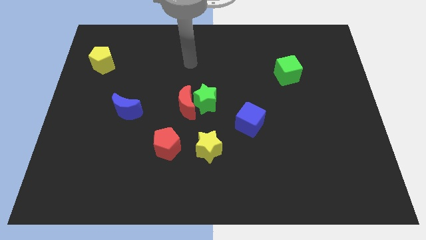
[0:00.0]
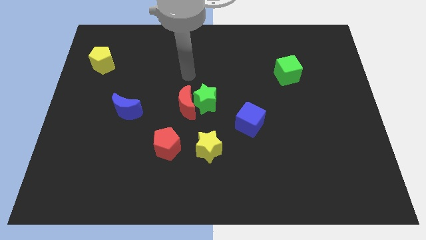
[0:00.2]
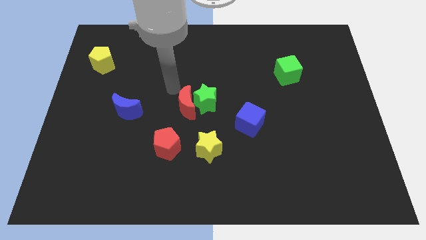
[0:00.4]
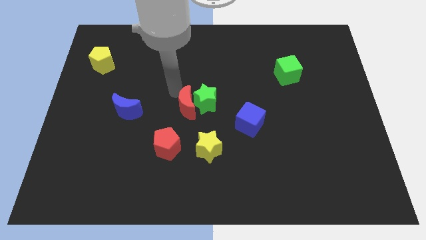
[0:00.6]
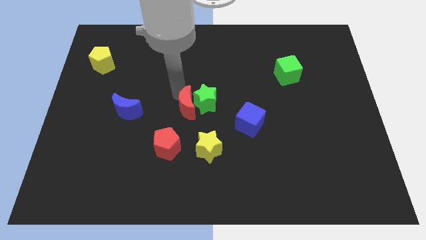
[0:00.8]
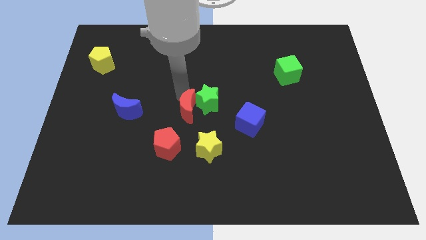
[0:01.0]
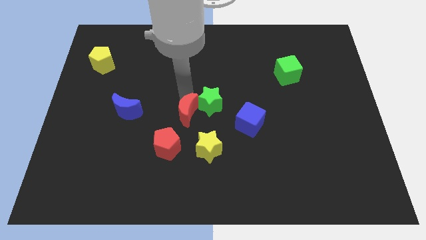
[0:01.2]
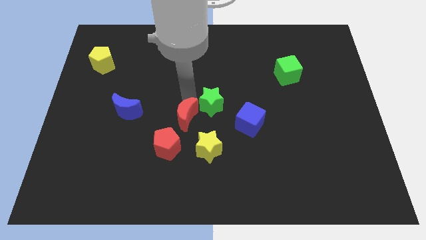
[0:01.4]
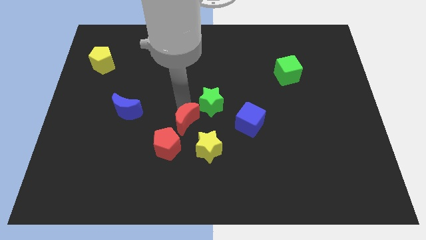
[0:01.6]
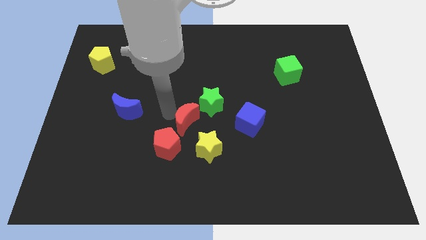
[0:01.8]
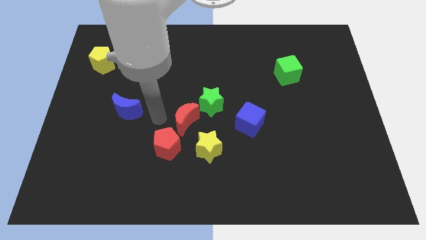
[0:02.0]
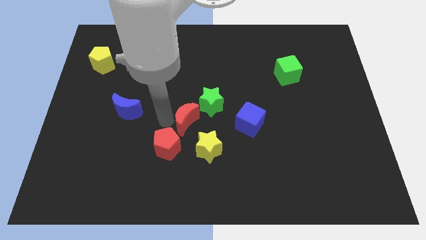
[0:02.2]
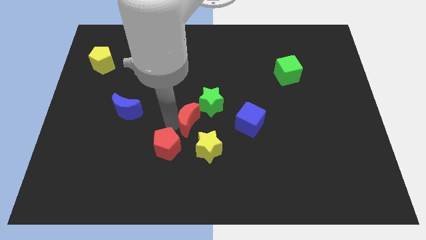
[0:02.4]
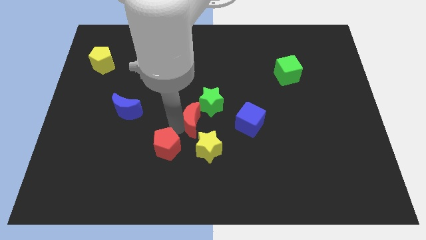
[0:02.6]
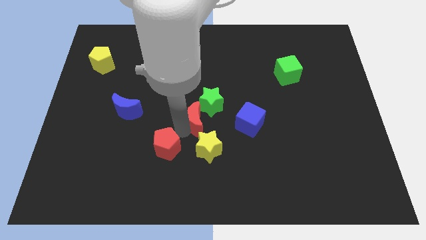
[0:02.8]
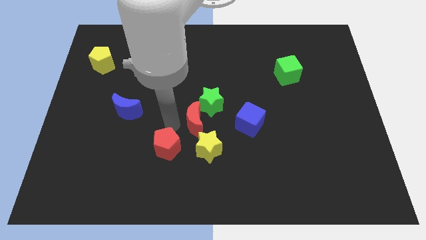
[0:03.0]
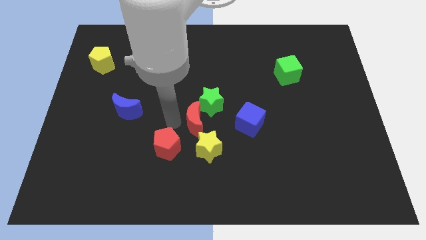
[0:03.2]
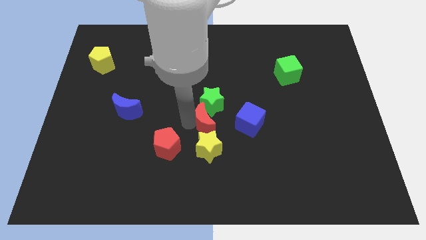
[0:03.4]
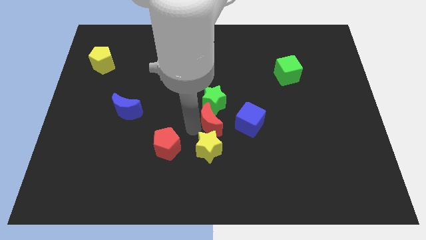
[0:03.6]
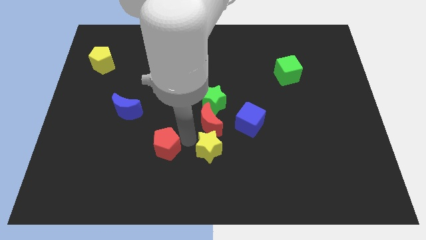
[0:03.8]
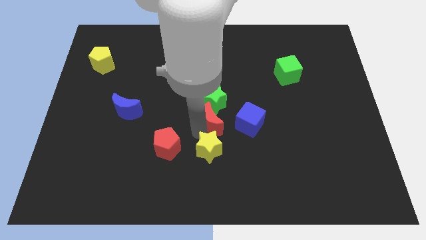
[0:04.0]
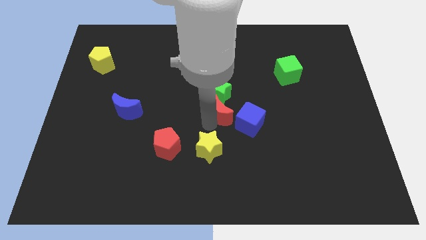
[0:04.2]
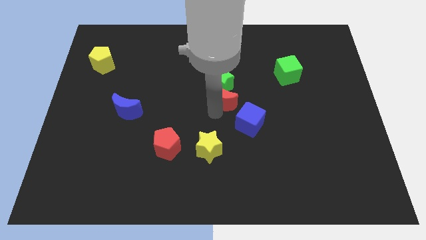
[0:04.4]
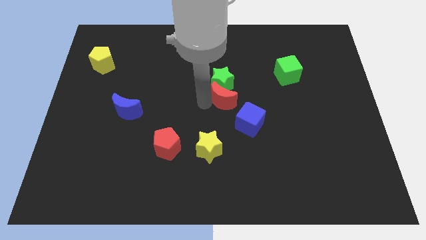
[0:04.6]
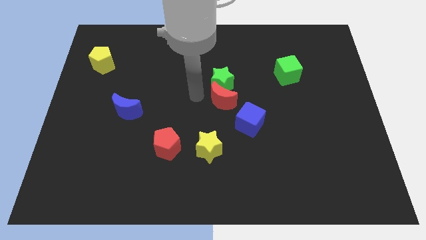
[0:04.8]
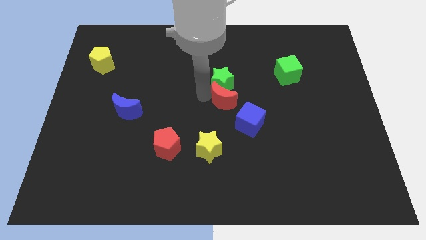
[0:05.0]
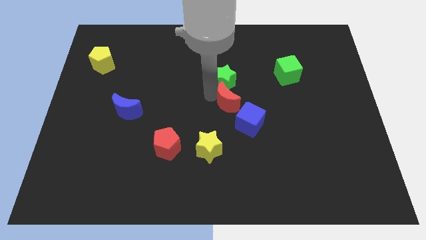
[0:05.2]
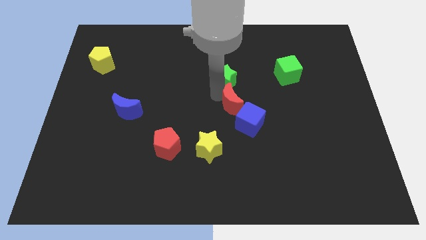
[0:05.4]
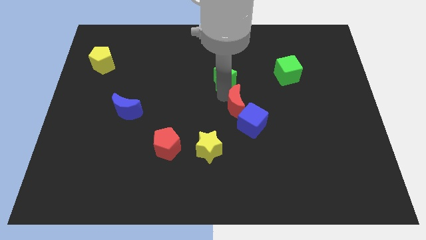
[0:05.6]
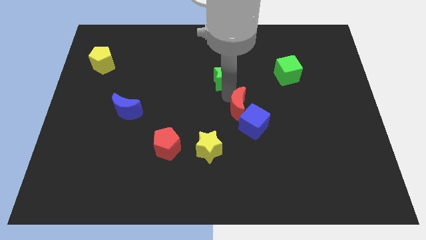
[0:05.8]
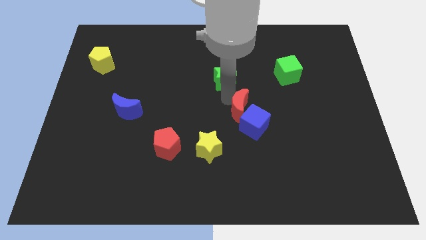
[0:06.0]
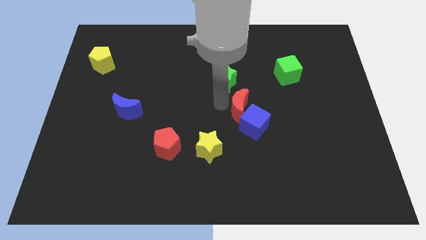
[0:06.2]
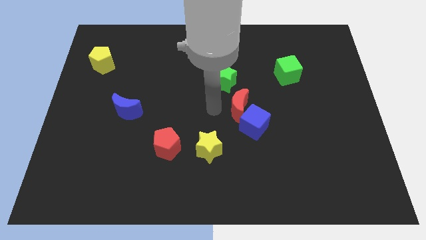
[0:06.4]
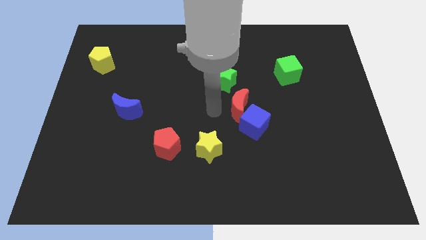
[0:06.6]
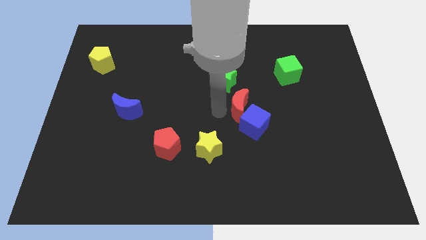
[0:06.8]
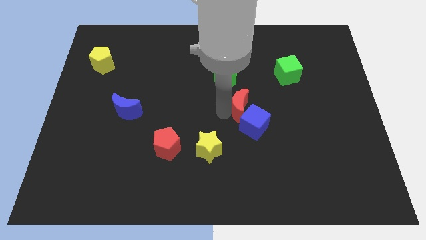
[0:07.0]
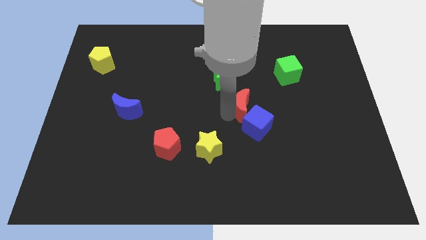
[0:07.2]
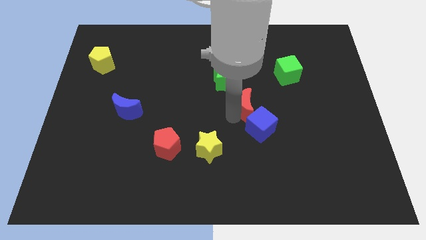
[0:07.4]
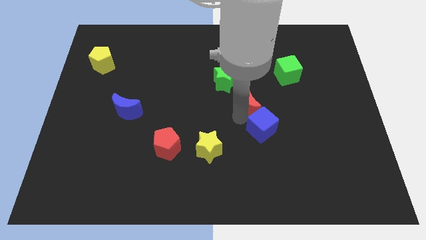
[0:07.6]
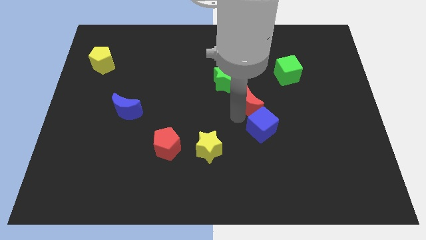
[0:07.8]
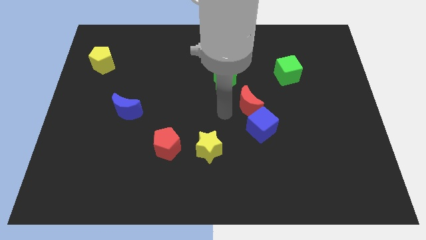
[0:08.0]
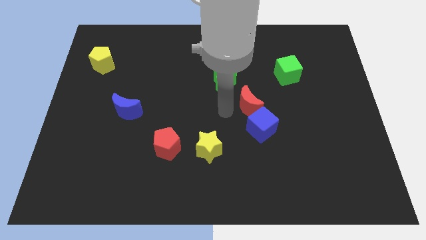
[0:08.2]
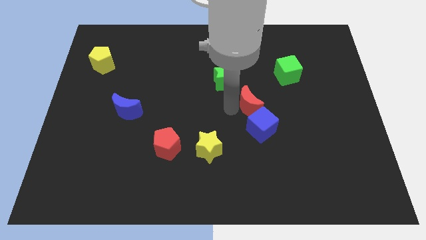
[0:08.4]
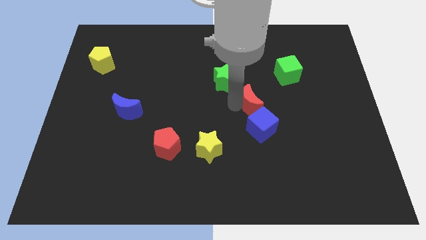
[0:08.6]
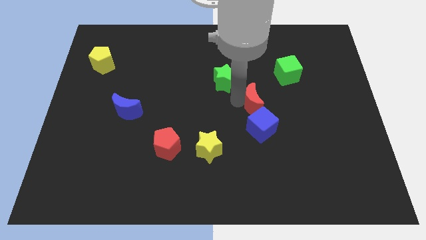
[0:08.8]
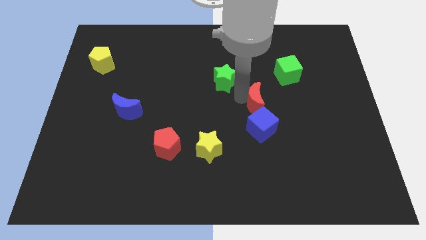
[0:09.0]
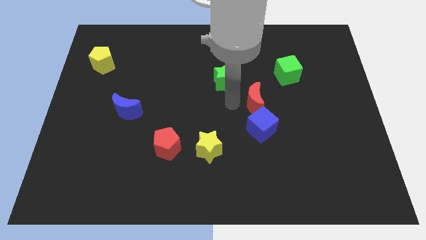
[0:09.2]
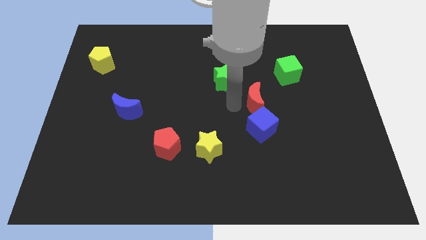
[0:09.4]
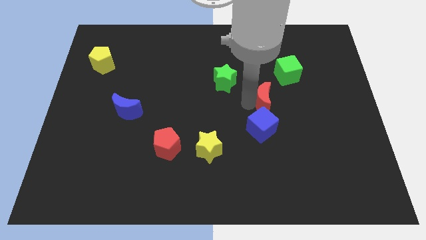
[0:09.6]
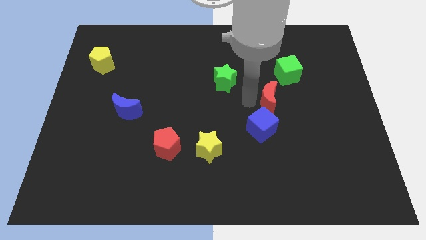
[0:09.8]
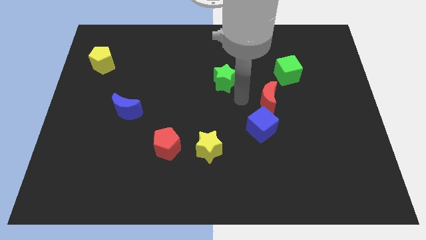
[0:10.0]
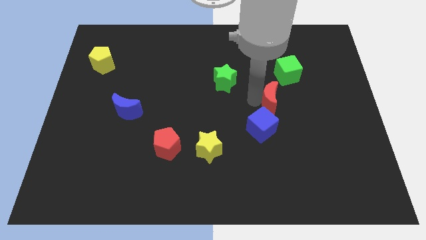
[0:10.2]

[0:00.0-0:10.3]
slide the red moon right

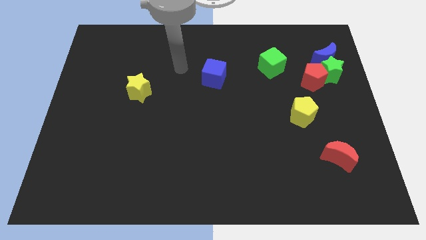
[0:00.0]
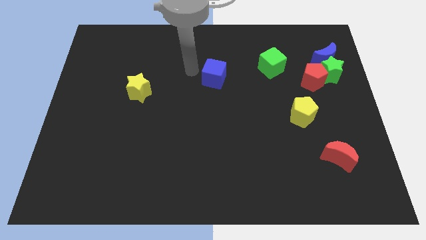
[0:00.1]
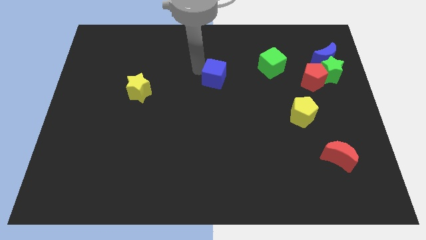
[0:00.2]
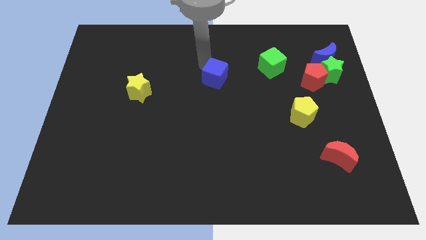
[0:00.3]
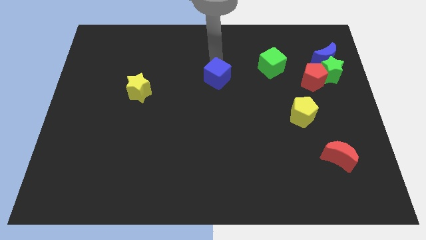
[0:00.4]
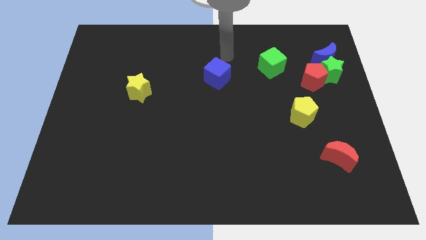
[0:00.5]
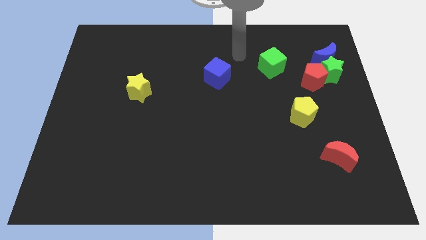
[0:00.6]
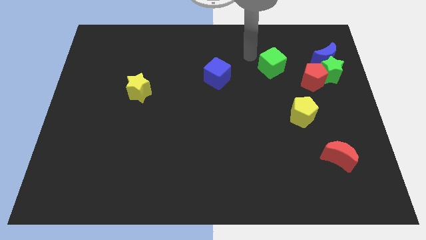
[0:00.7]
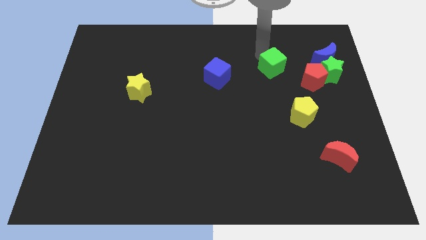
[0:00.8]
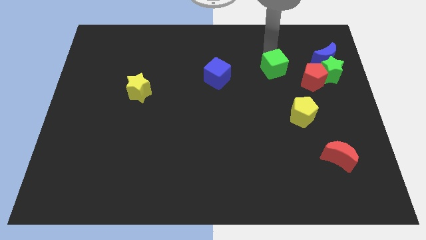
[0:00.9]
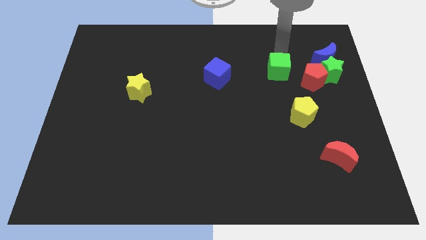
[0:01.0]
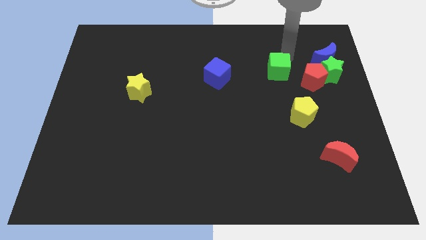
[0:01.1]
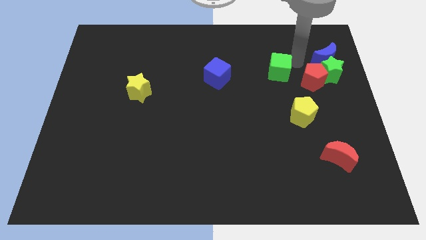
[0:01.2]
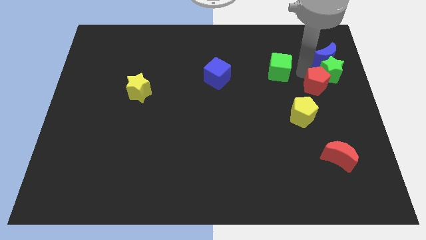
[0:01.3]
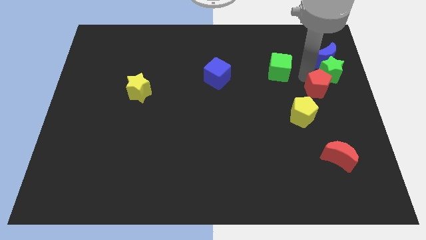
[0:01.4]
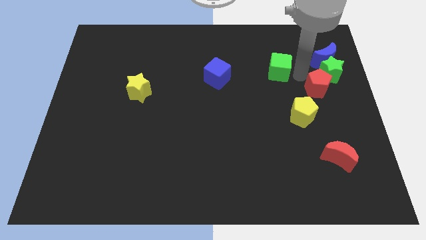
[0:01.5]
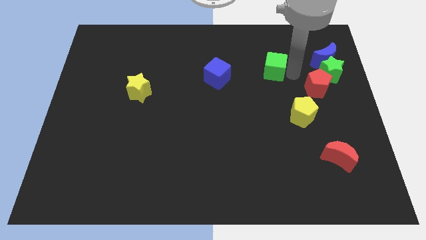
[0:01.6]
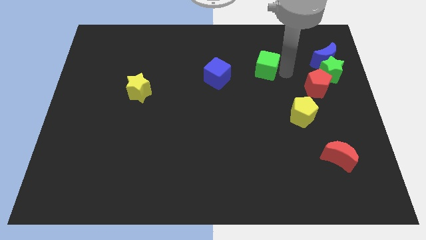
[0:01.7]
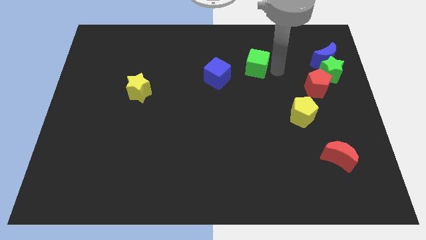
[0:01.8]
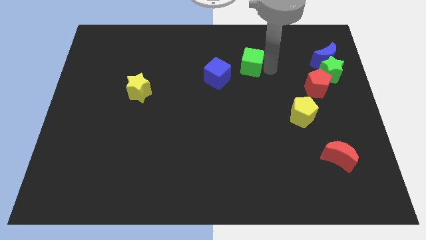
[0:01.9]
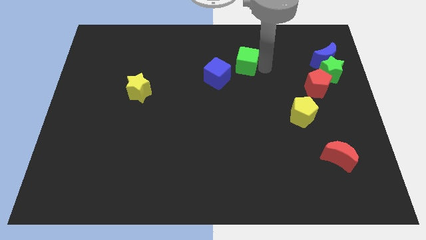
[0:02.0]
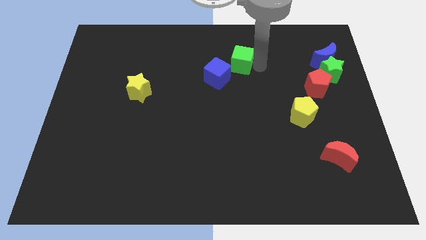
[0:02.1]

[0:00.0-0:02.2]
slide the green cube a bit left

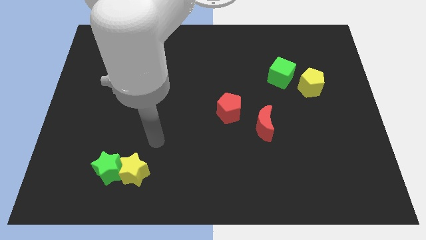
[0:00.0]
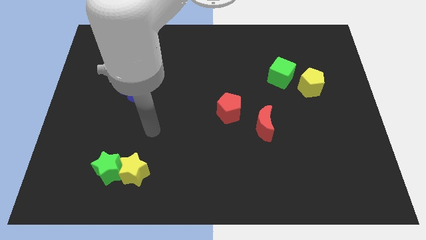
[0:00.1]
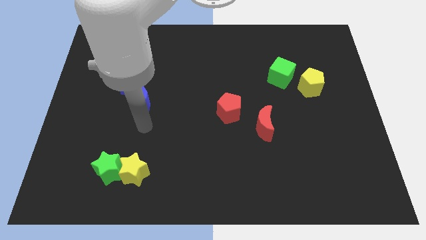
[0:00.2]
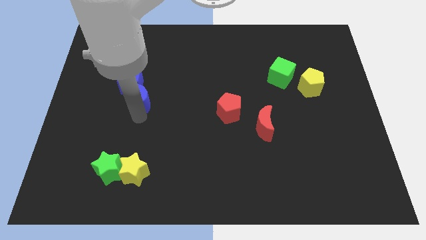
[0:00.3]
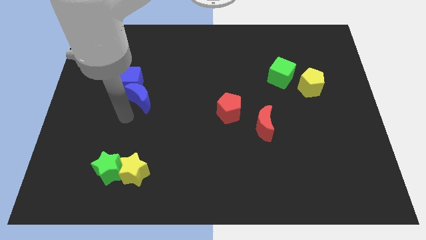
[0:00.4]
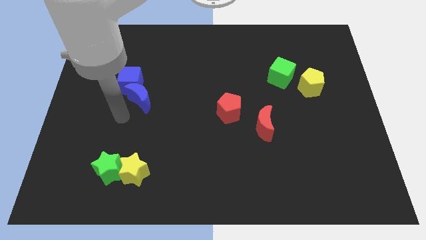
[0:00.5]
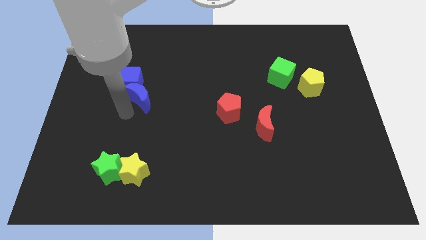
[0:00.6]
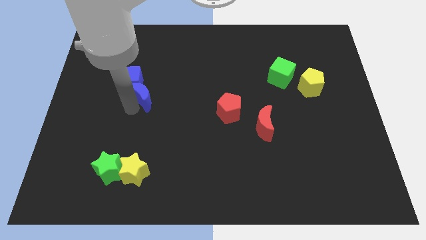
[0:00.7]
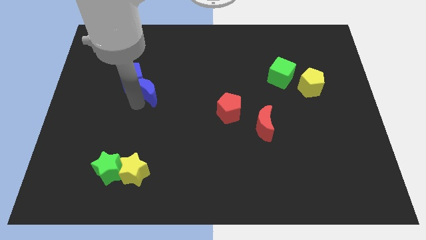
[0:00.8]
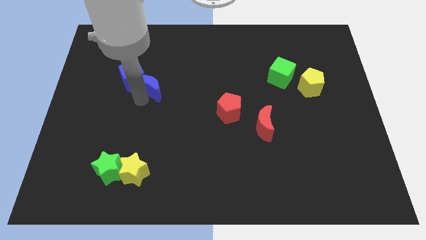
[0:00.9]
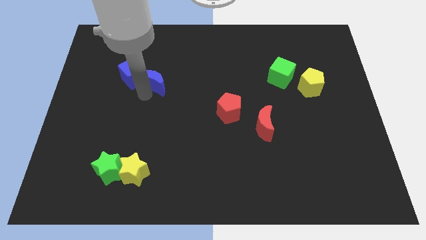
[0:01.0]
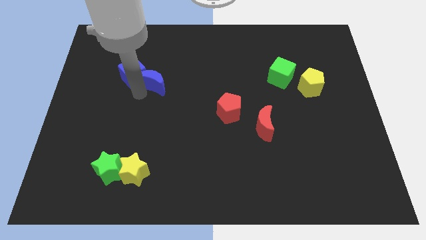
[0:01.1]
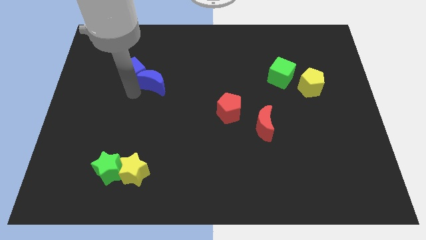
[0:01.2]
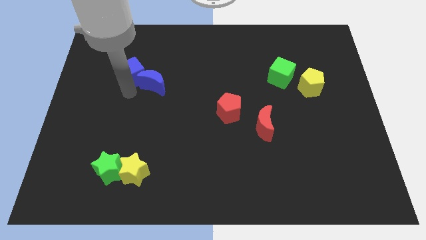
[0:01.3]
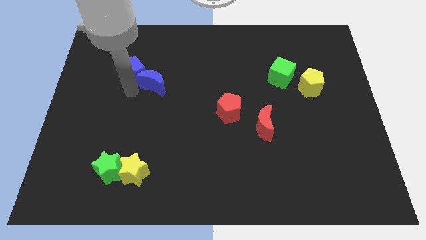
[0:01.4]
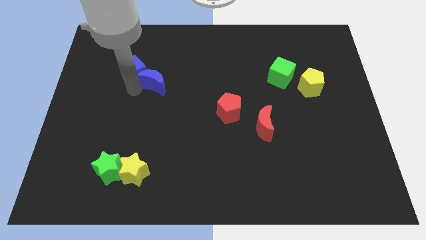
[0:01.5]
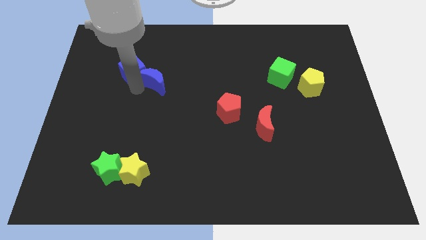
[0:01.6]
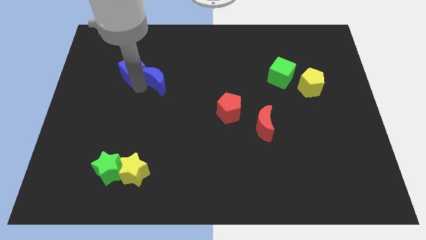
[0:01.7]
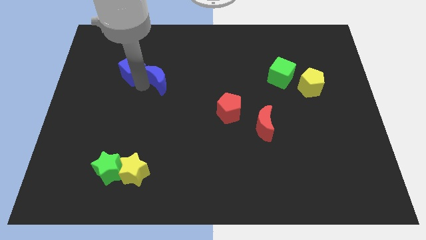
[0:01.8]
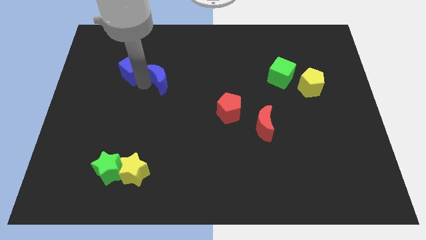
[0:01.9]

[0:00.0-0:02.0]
push the blue moon upwards and to the right diagonally a bit
